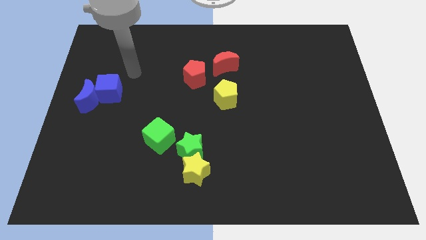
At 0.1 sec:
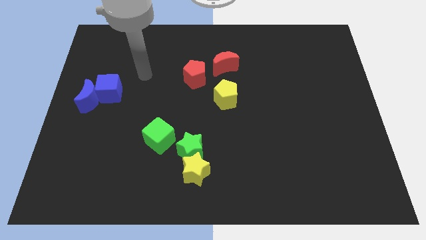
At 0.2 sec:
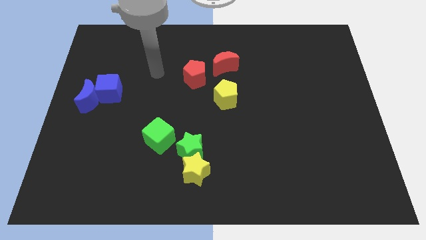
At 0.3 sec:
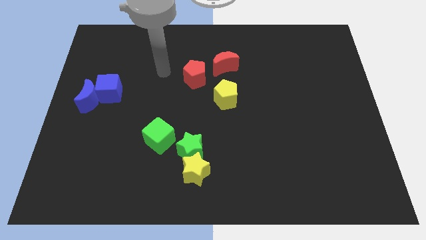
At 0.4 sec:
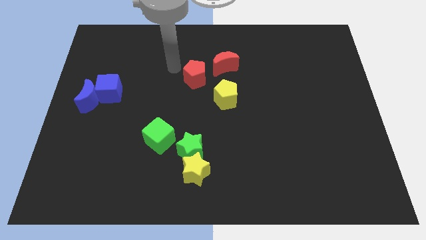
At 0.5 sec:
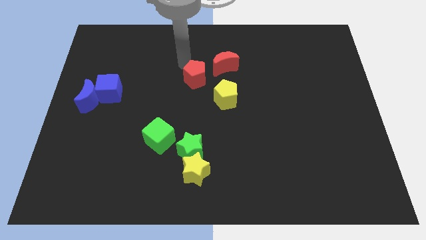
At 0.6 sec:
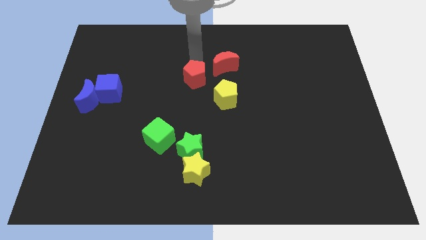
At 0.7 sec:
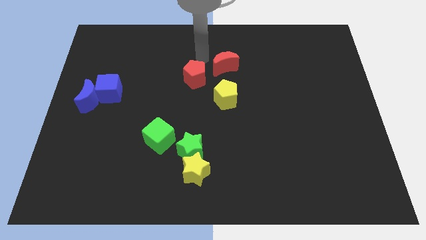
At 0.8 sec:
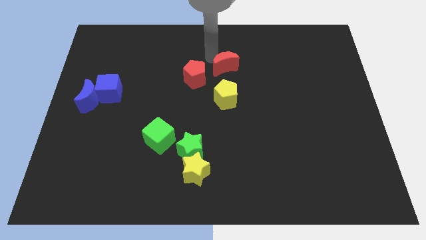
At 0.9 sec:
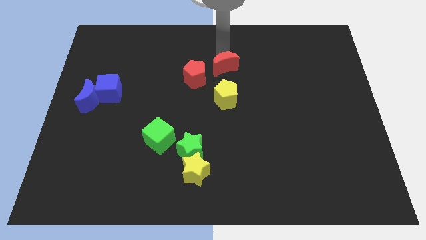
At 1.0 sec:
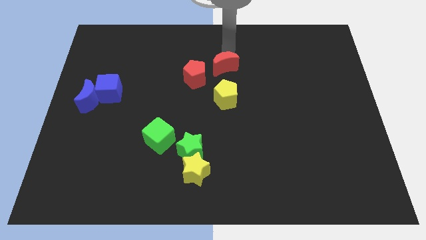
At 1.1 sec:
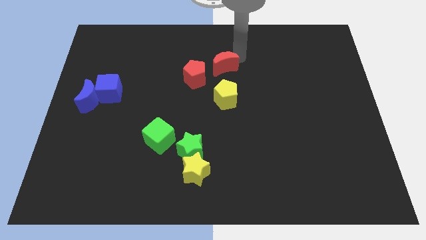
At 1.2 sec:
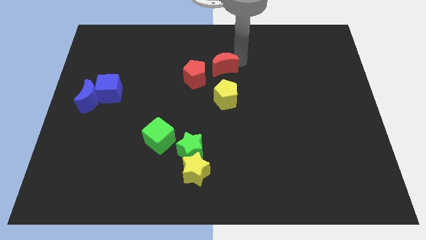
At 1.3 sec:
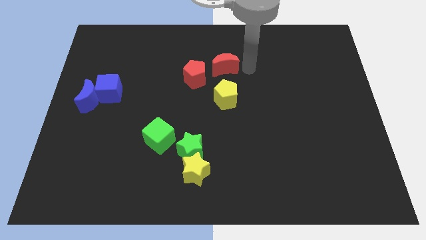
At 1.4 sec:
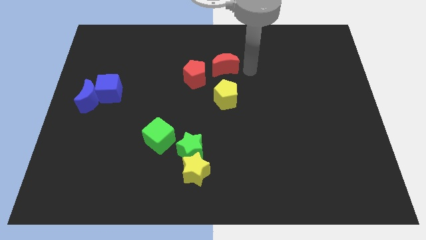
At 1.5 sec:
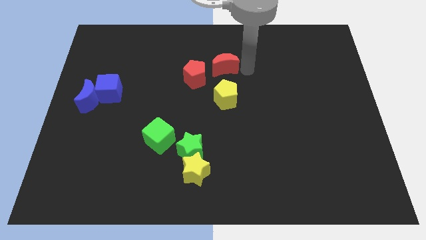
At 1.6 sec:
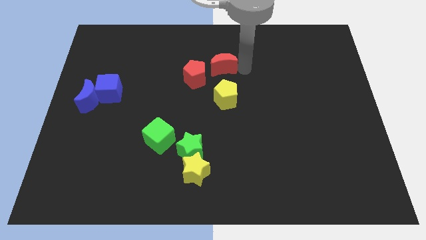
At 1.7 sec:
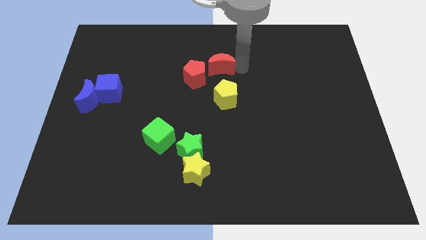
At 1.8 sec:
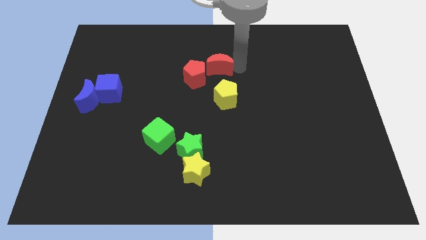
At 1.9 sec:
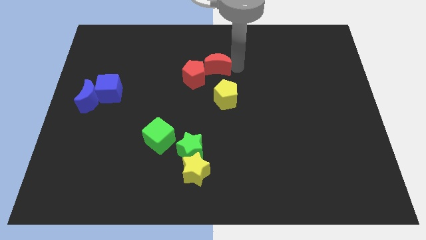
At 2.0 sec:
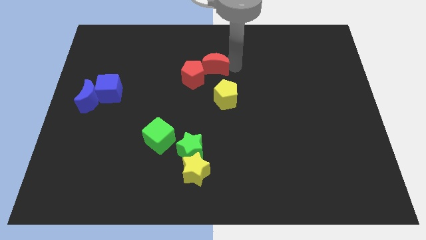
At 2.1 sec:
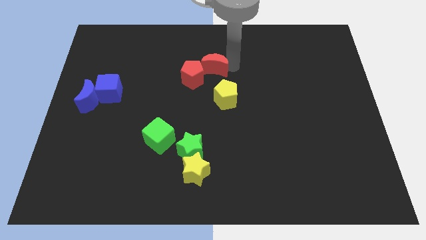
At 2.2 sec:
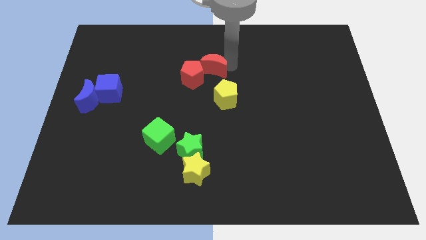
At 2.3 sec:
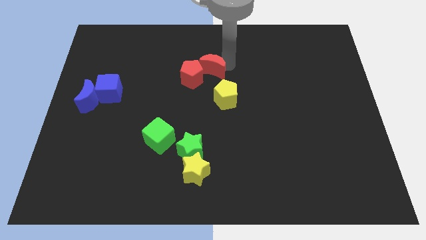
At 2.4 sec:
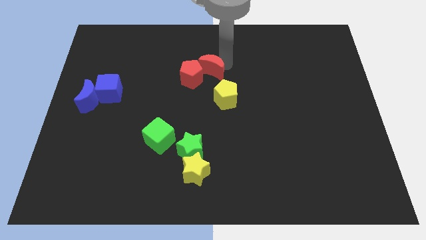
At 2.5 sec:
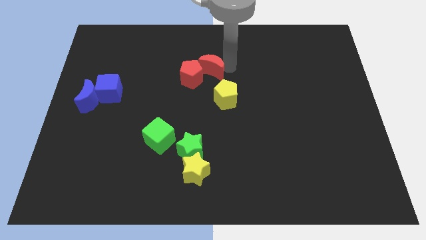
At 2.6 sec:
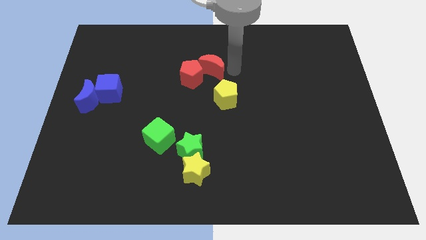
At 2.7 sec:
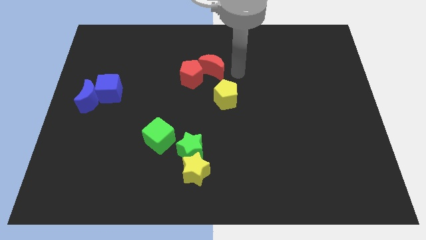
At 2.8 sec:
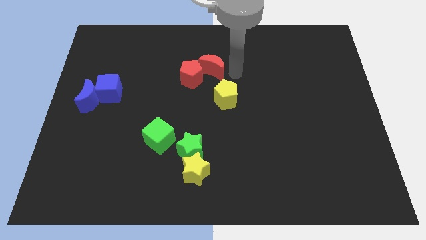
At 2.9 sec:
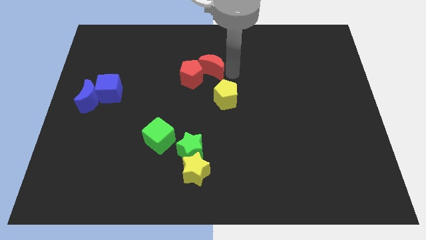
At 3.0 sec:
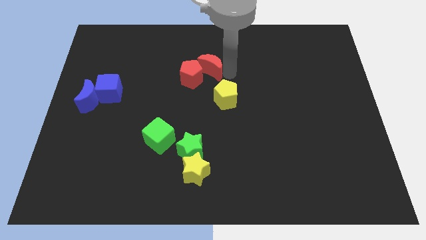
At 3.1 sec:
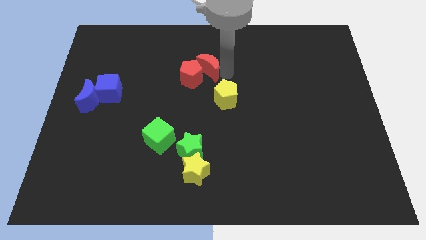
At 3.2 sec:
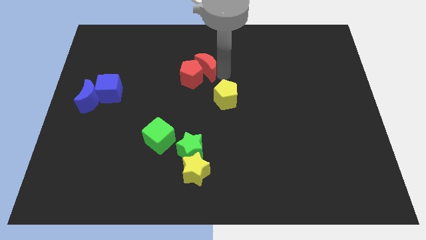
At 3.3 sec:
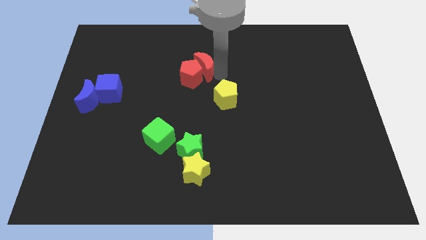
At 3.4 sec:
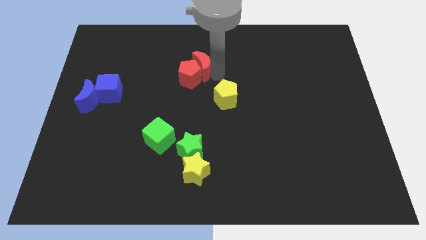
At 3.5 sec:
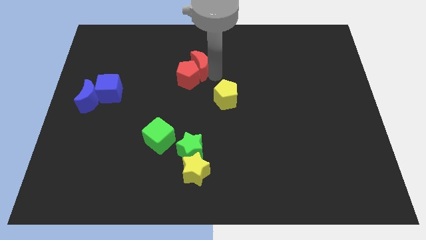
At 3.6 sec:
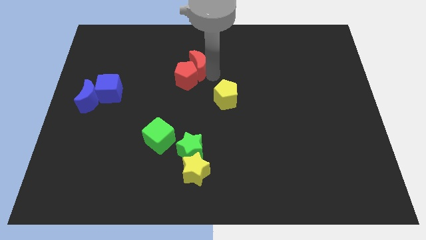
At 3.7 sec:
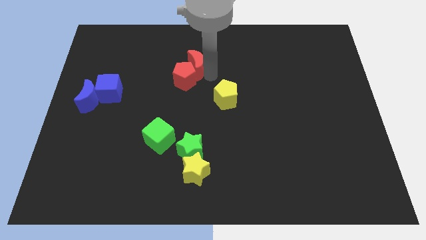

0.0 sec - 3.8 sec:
slide the red moon somewhat left

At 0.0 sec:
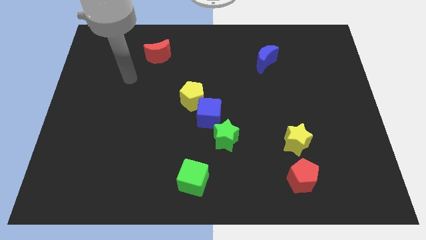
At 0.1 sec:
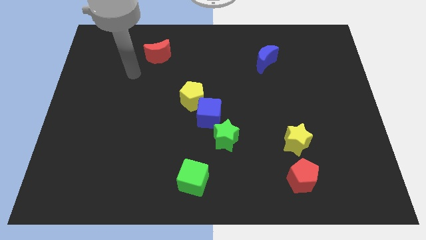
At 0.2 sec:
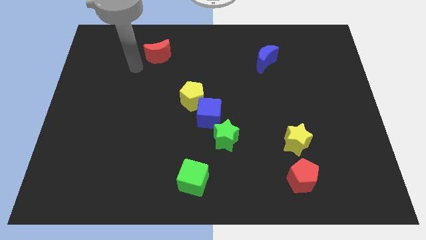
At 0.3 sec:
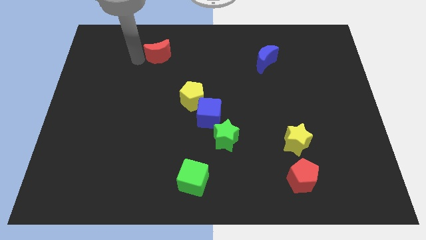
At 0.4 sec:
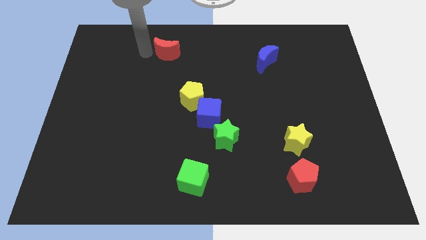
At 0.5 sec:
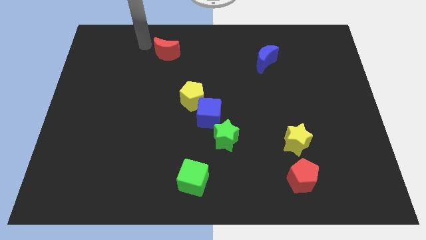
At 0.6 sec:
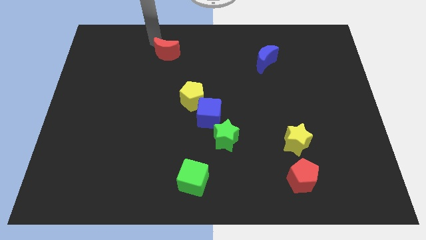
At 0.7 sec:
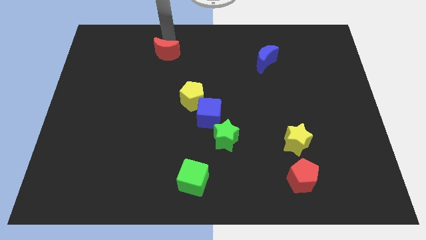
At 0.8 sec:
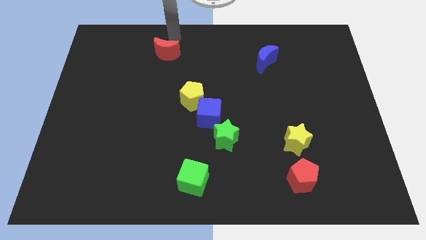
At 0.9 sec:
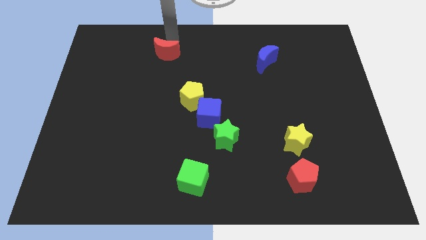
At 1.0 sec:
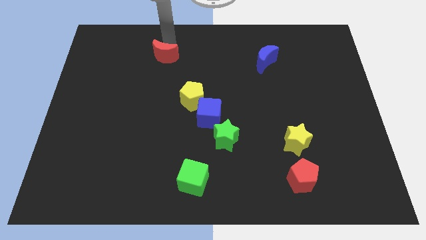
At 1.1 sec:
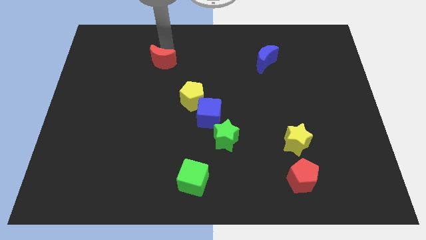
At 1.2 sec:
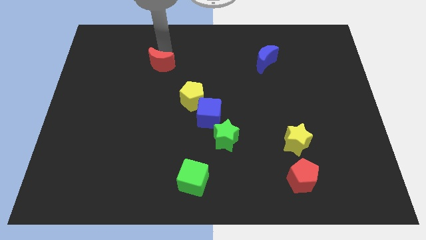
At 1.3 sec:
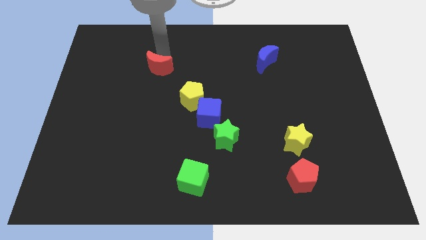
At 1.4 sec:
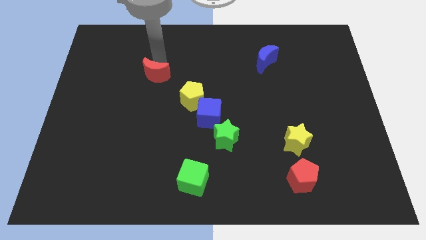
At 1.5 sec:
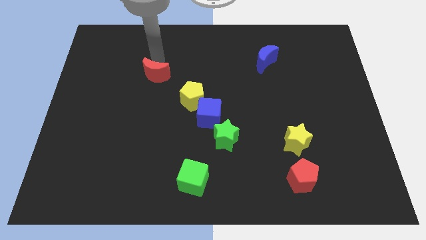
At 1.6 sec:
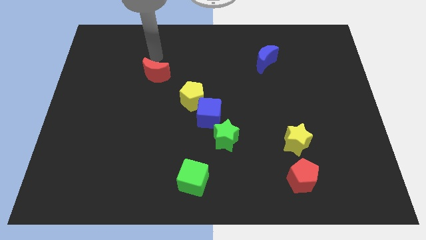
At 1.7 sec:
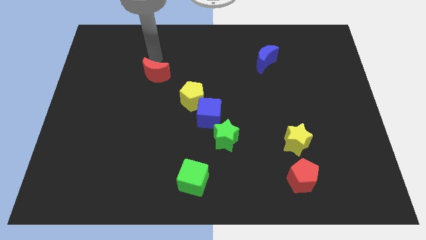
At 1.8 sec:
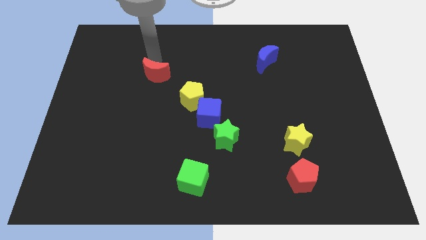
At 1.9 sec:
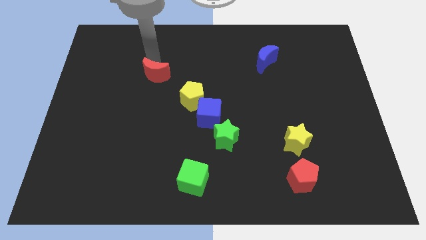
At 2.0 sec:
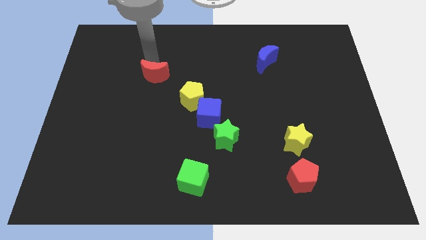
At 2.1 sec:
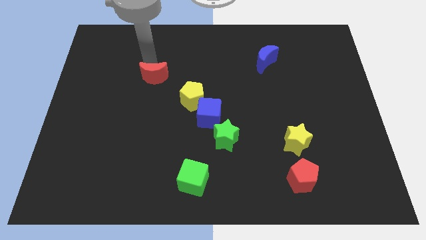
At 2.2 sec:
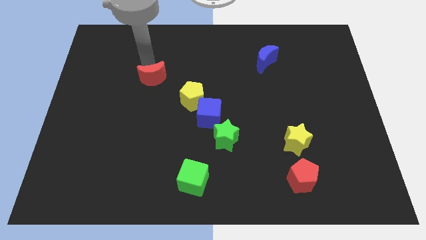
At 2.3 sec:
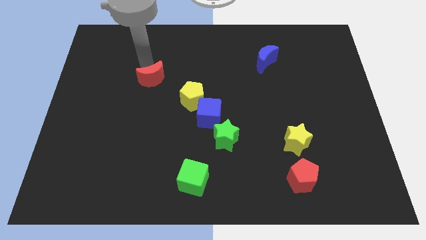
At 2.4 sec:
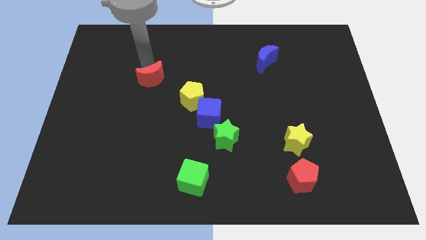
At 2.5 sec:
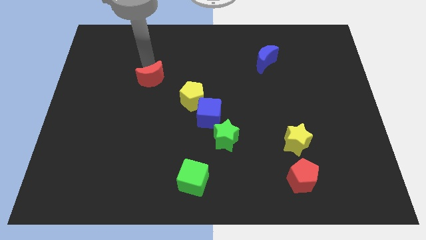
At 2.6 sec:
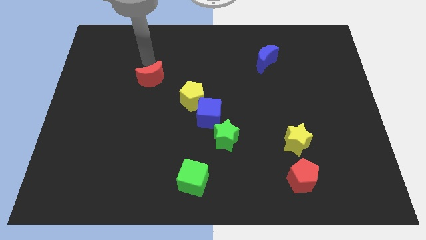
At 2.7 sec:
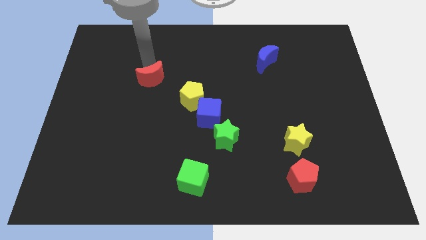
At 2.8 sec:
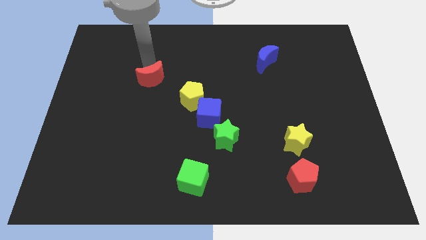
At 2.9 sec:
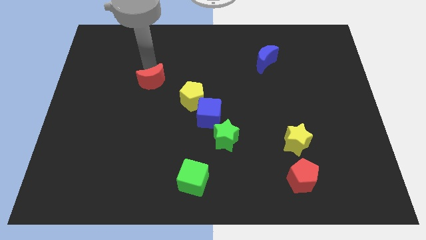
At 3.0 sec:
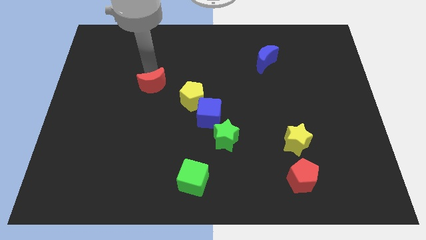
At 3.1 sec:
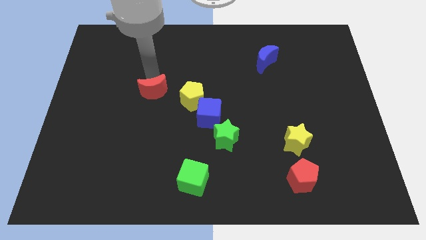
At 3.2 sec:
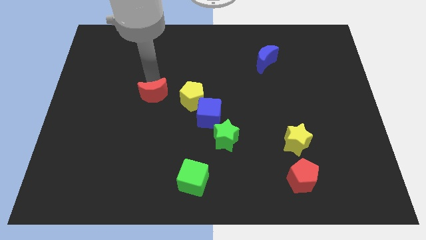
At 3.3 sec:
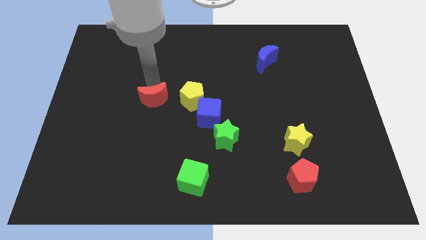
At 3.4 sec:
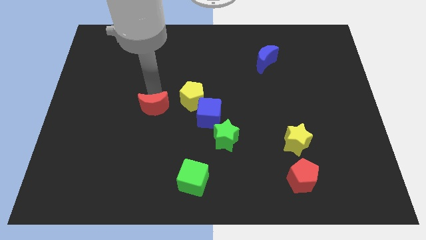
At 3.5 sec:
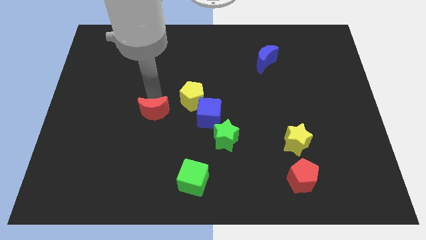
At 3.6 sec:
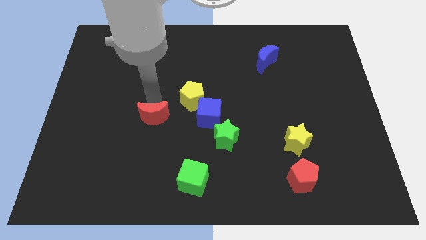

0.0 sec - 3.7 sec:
slide the red moon downwards

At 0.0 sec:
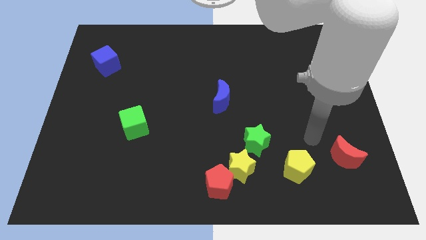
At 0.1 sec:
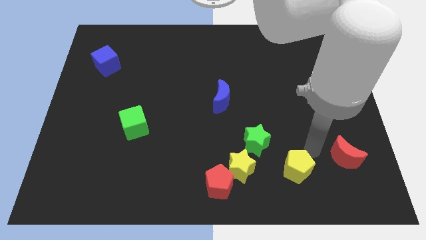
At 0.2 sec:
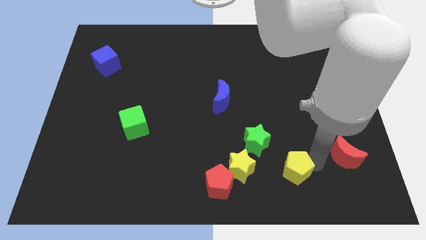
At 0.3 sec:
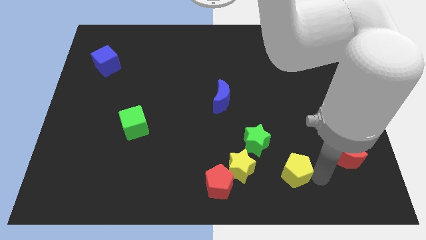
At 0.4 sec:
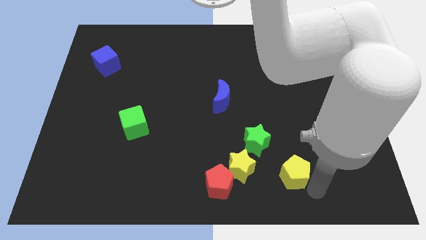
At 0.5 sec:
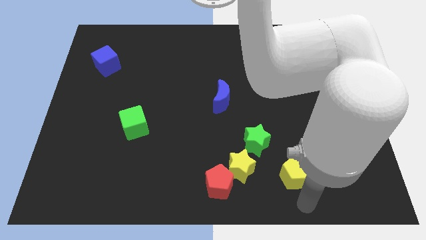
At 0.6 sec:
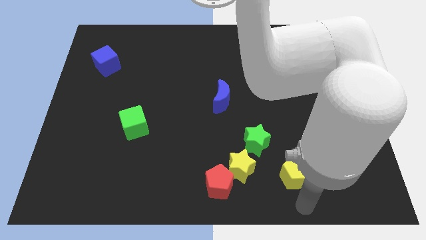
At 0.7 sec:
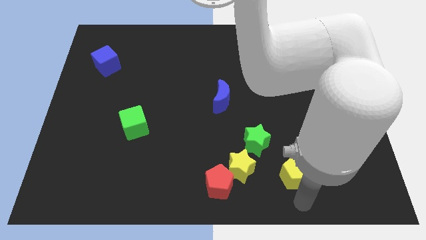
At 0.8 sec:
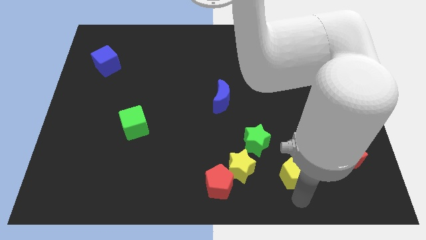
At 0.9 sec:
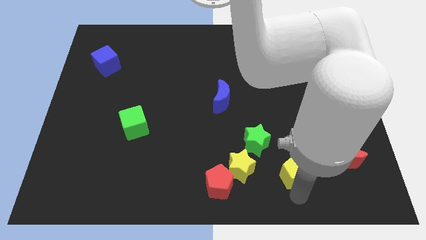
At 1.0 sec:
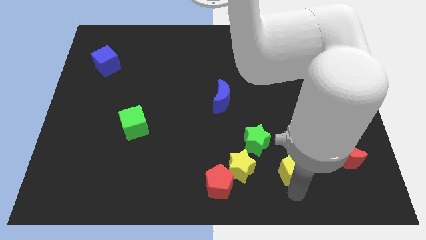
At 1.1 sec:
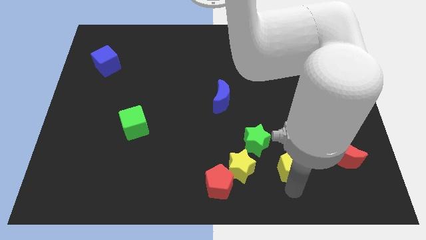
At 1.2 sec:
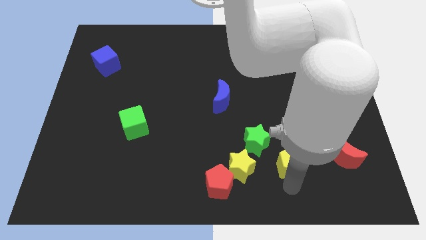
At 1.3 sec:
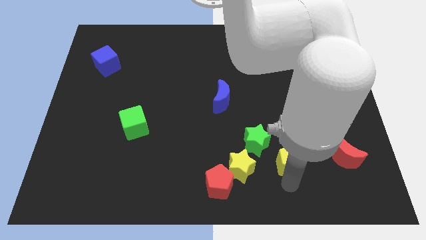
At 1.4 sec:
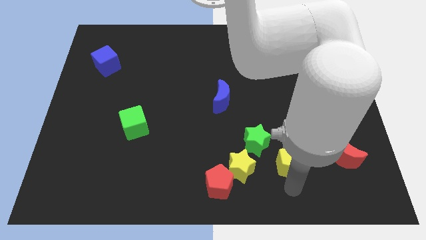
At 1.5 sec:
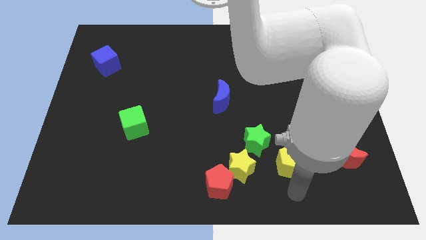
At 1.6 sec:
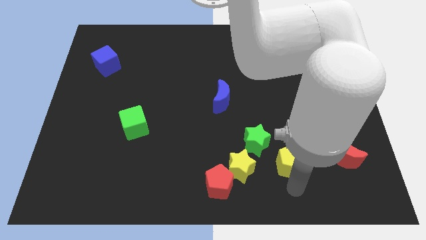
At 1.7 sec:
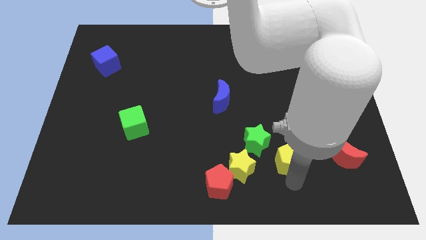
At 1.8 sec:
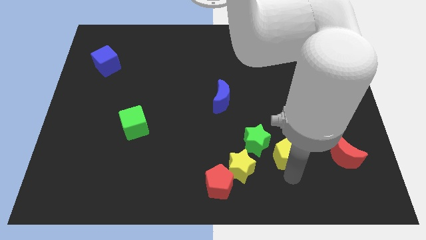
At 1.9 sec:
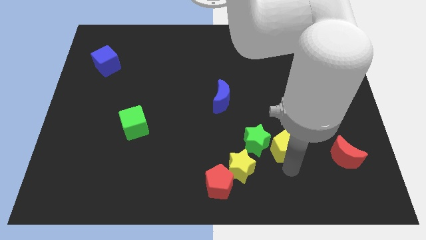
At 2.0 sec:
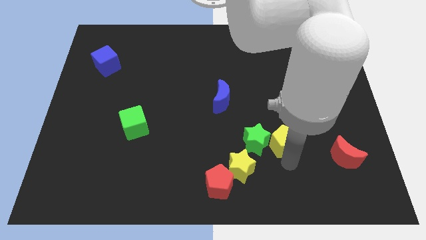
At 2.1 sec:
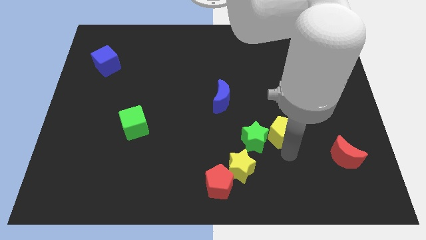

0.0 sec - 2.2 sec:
slightly move the yellow pentagon upwards and to the left
